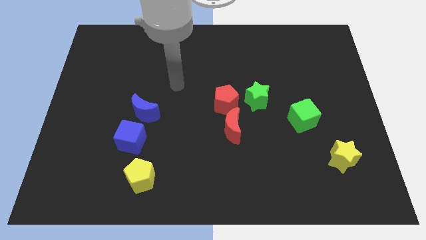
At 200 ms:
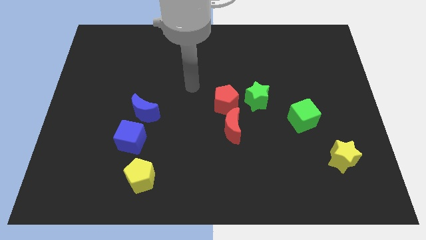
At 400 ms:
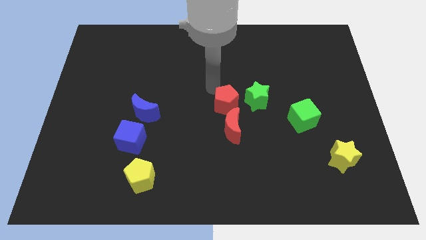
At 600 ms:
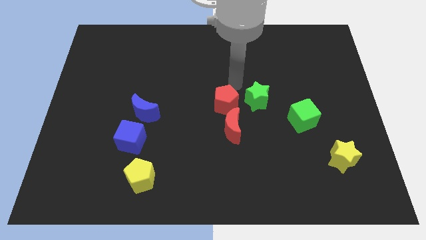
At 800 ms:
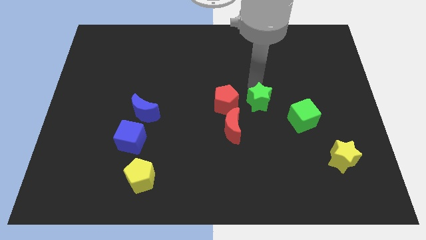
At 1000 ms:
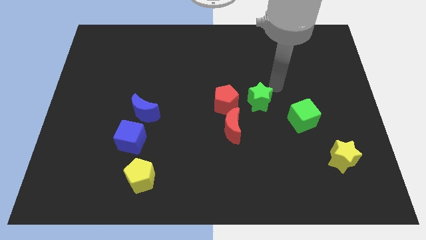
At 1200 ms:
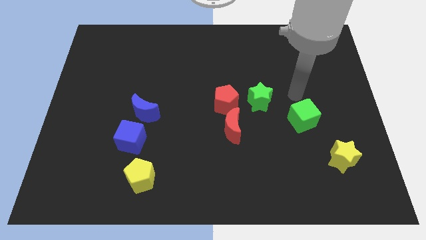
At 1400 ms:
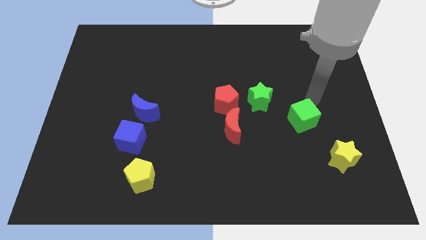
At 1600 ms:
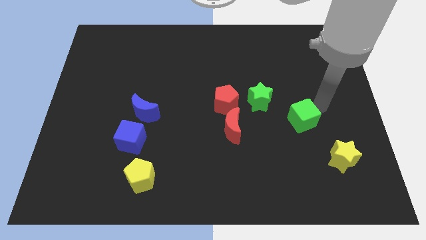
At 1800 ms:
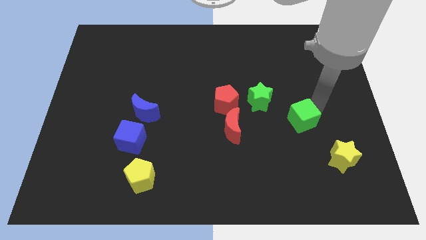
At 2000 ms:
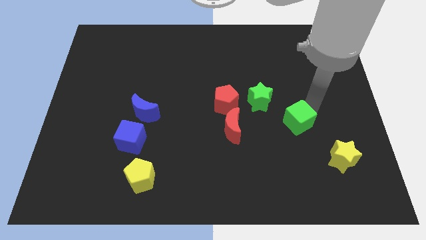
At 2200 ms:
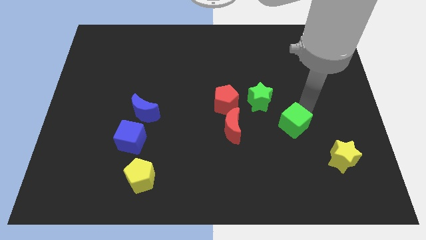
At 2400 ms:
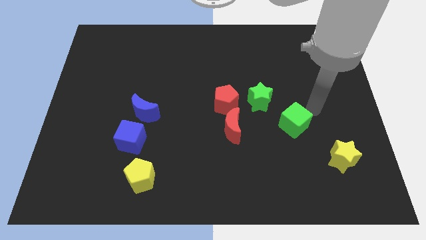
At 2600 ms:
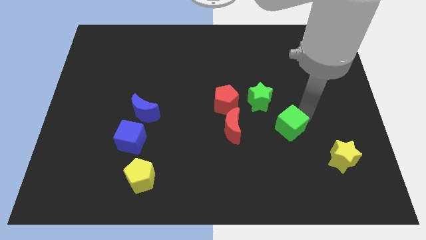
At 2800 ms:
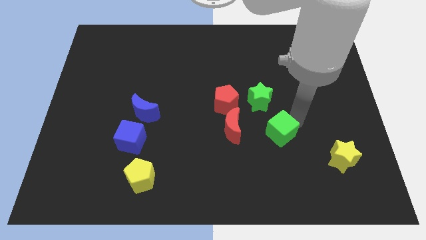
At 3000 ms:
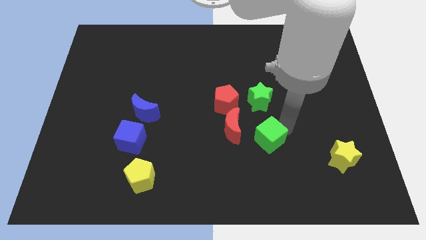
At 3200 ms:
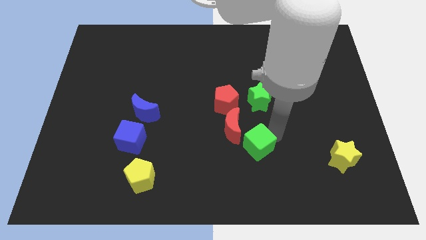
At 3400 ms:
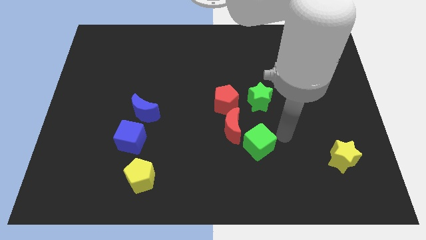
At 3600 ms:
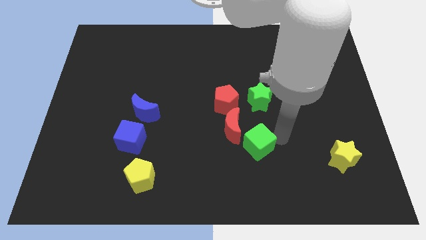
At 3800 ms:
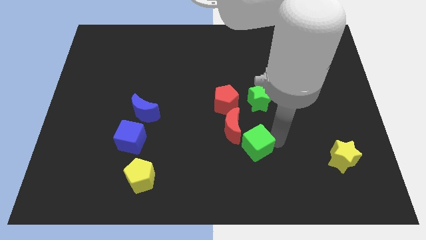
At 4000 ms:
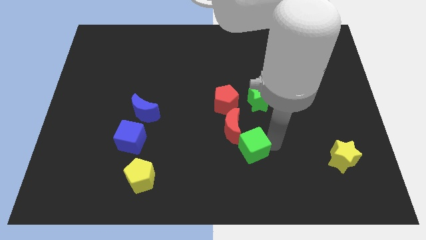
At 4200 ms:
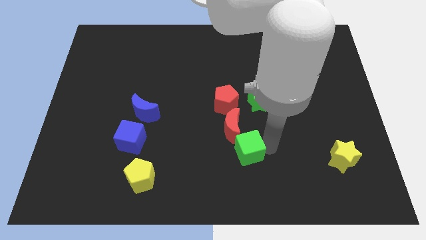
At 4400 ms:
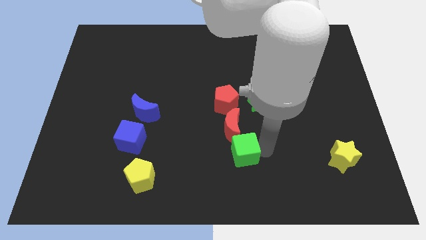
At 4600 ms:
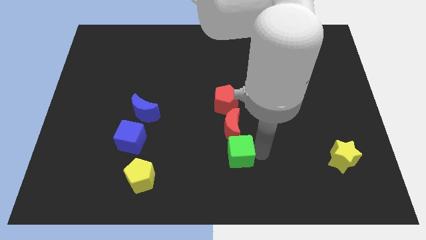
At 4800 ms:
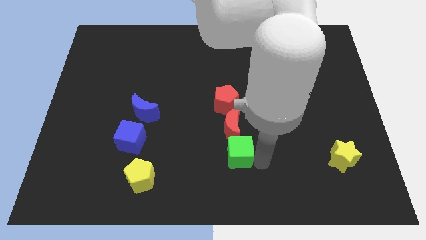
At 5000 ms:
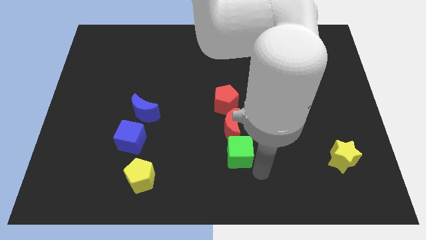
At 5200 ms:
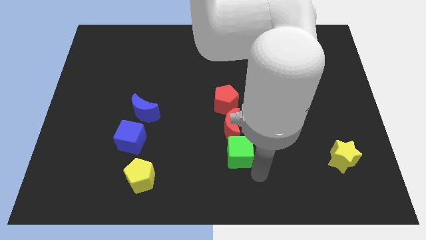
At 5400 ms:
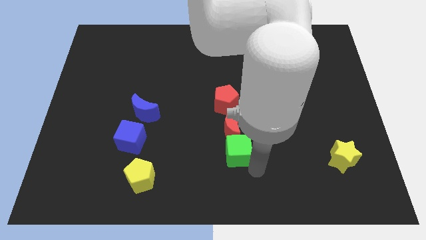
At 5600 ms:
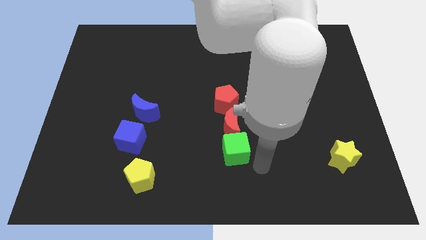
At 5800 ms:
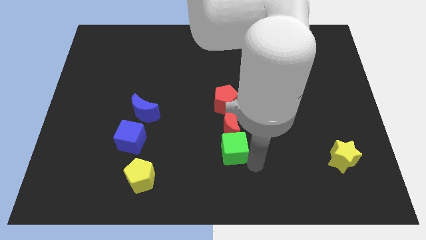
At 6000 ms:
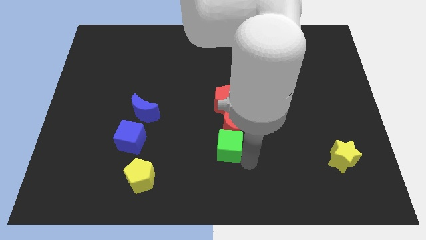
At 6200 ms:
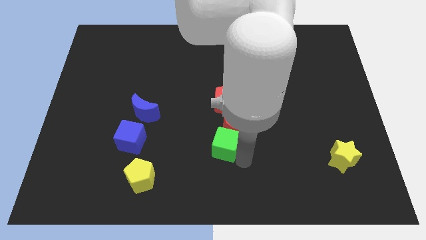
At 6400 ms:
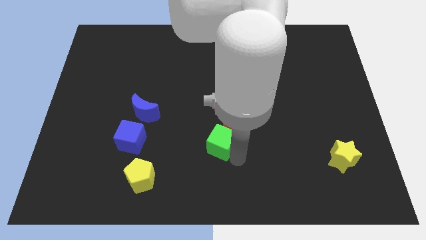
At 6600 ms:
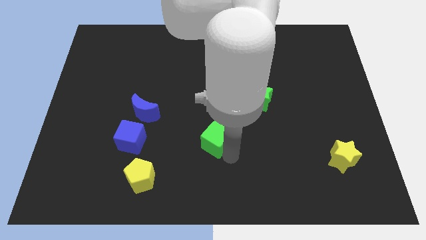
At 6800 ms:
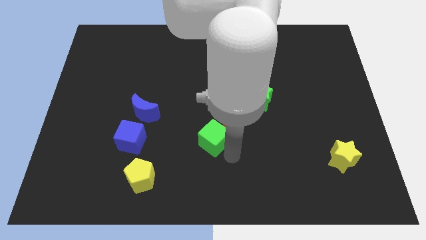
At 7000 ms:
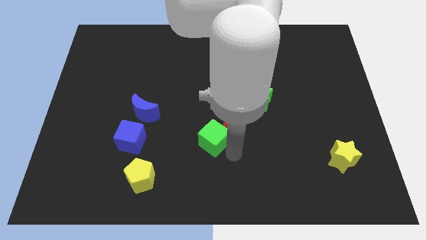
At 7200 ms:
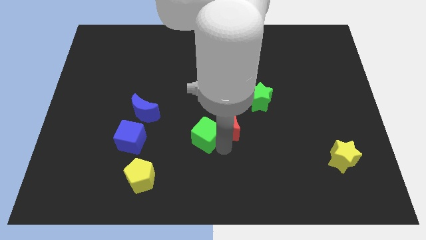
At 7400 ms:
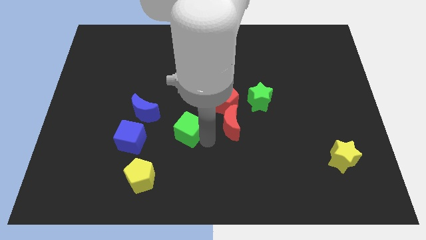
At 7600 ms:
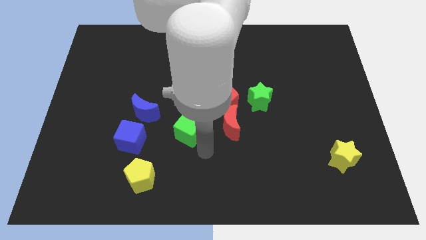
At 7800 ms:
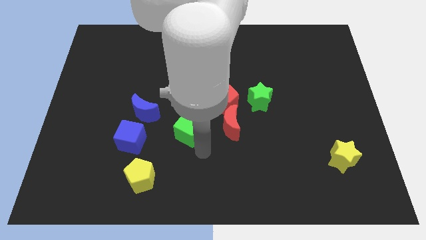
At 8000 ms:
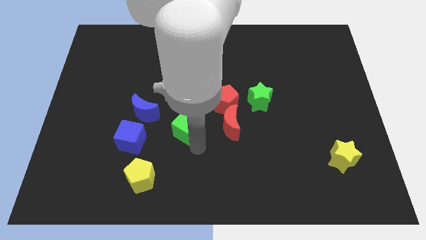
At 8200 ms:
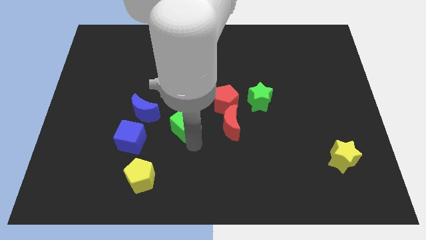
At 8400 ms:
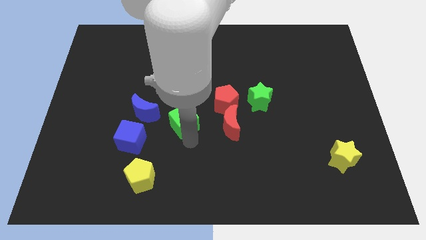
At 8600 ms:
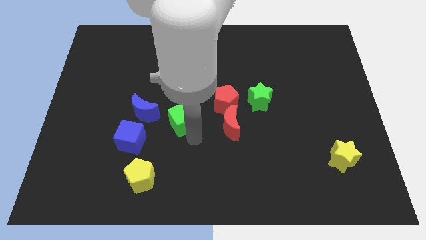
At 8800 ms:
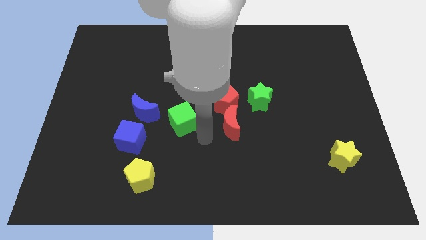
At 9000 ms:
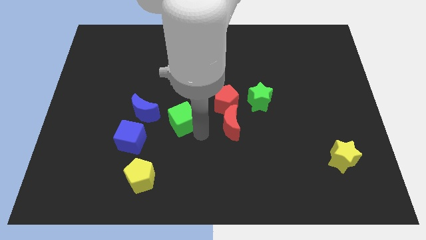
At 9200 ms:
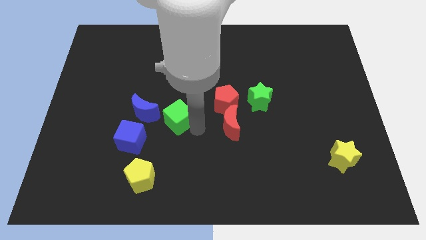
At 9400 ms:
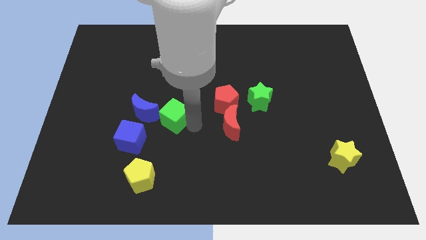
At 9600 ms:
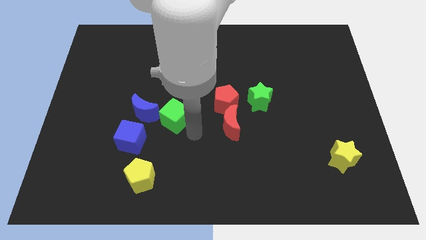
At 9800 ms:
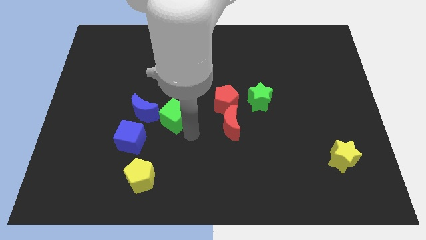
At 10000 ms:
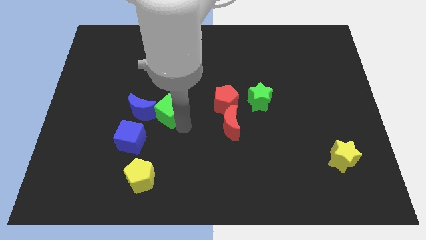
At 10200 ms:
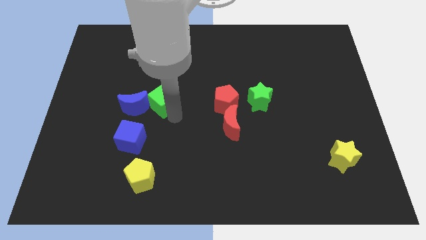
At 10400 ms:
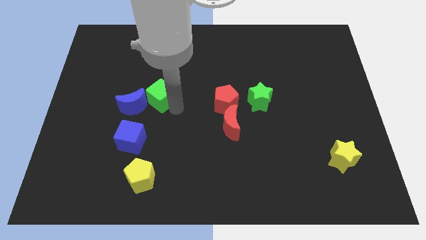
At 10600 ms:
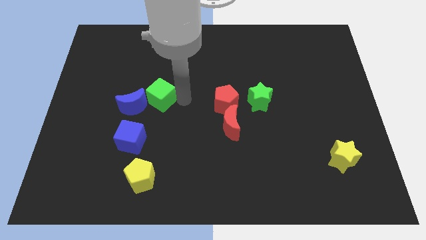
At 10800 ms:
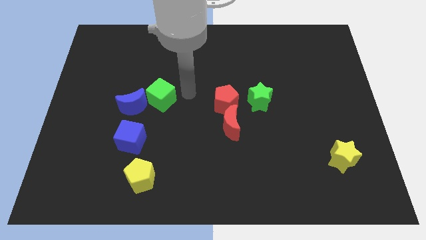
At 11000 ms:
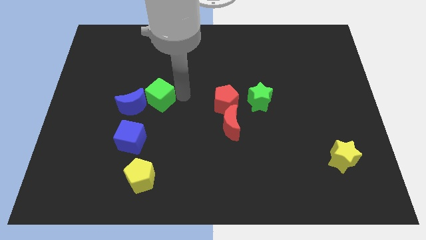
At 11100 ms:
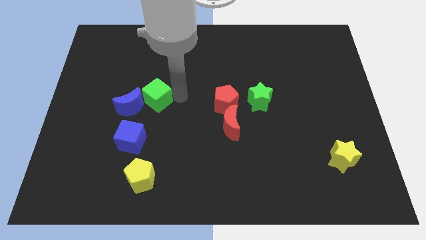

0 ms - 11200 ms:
move the green cube above the blue cube

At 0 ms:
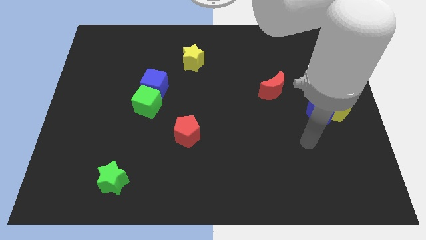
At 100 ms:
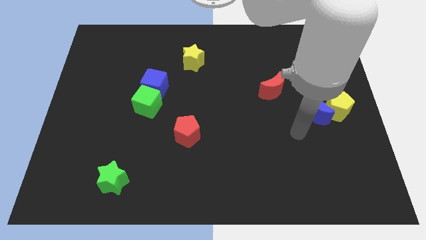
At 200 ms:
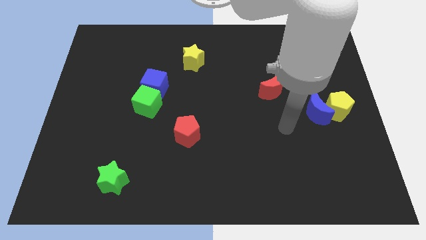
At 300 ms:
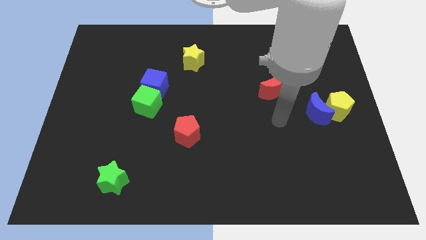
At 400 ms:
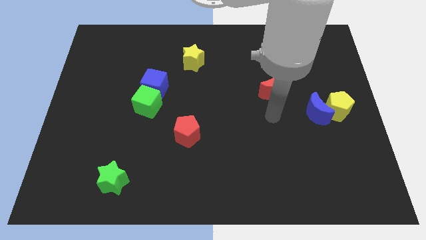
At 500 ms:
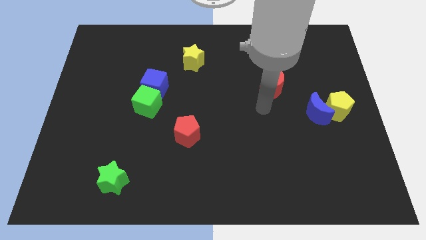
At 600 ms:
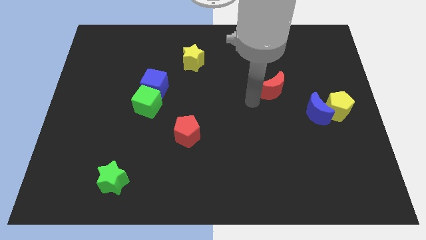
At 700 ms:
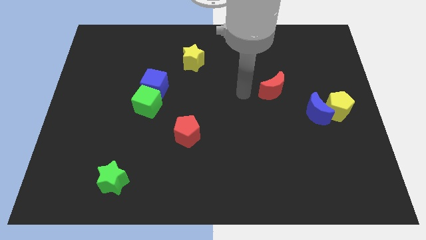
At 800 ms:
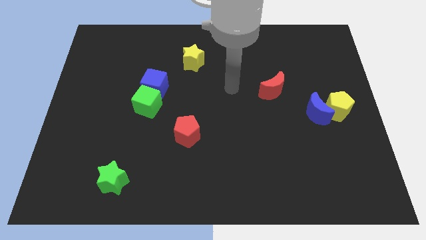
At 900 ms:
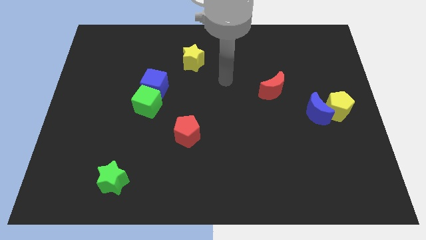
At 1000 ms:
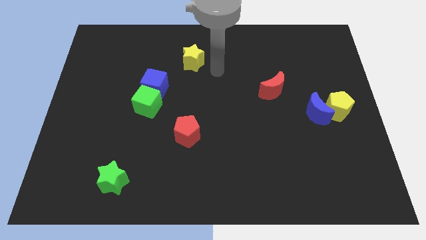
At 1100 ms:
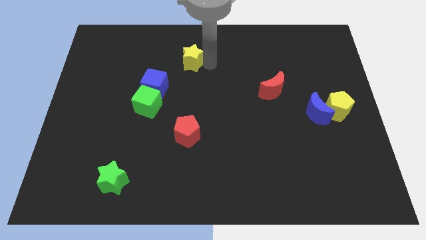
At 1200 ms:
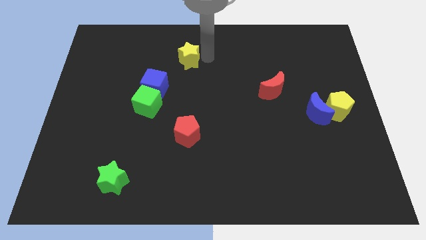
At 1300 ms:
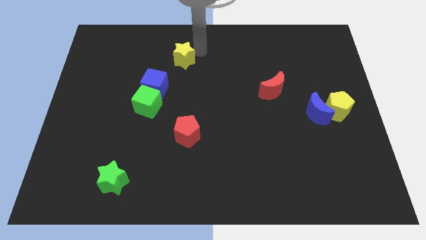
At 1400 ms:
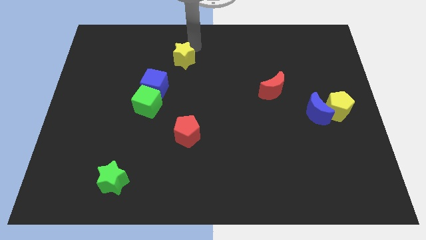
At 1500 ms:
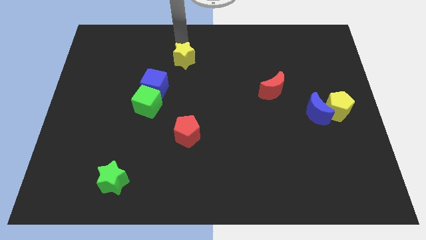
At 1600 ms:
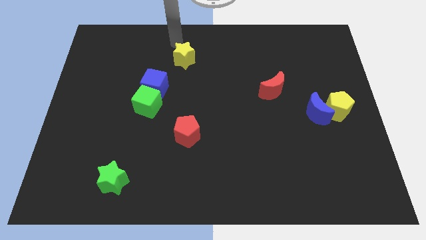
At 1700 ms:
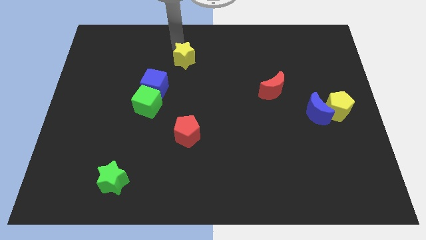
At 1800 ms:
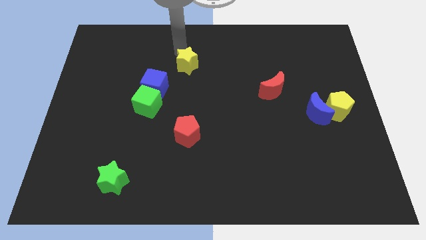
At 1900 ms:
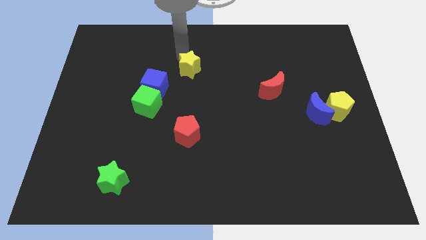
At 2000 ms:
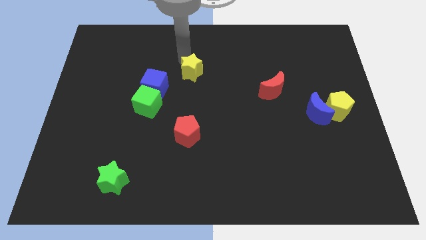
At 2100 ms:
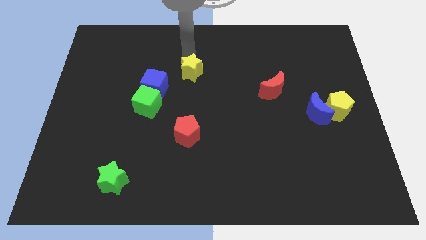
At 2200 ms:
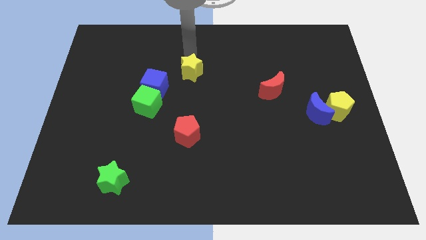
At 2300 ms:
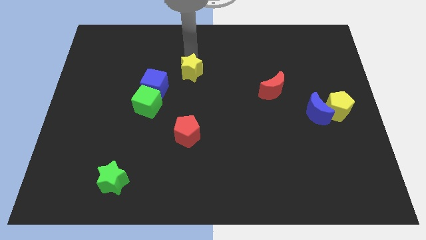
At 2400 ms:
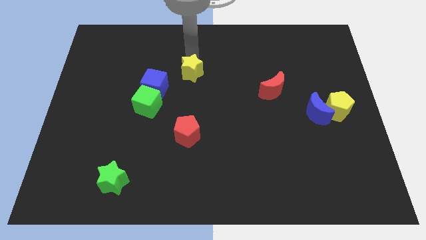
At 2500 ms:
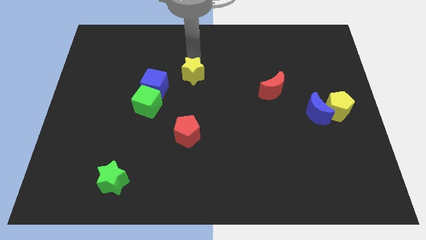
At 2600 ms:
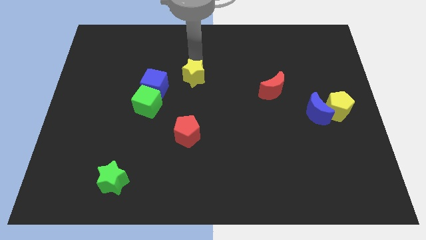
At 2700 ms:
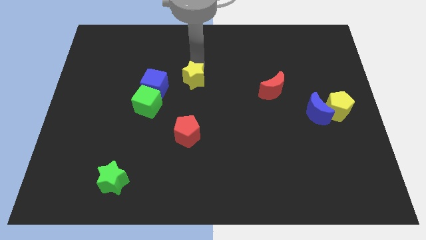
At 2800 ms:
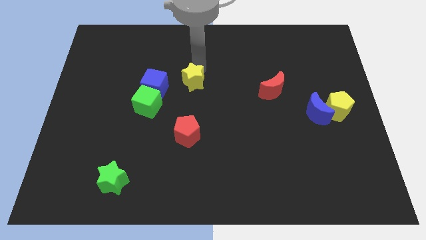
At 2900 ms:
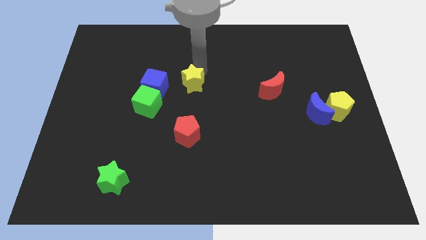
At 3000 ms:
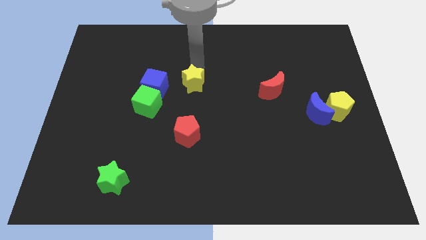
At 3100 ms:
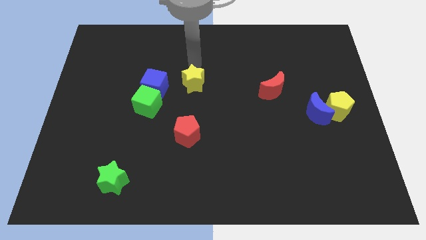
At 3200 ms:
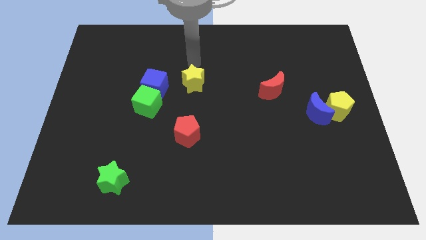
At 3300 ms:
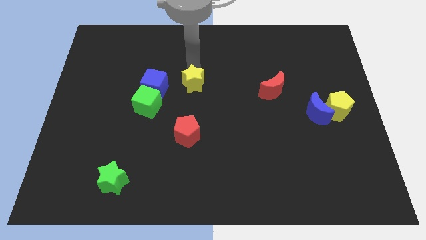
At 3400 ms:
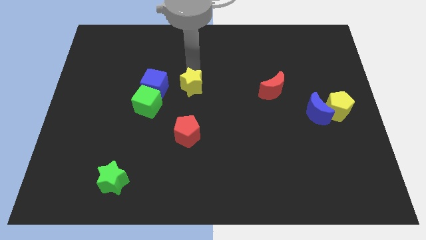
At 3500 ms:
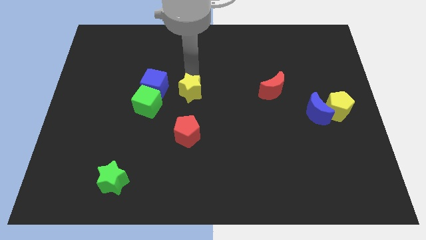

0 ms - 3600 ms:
push the yellow star to the right side of the green cube
